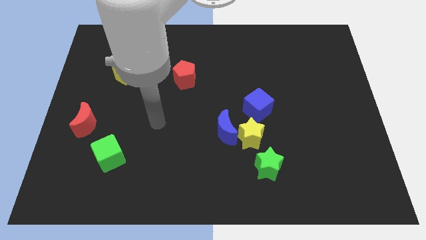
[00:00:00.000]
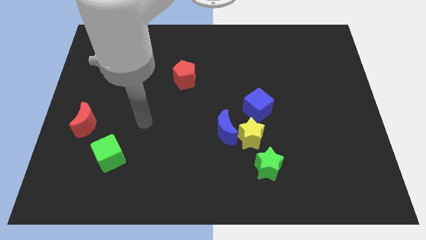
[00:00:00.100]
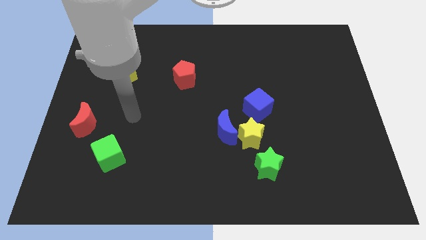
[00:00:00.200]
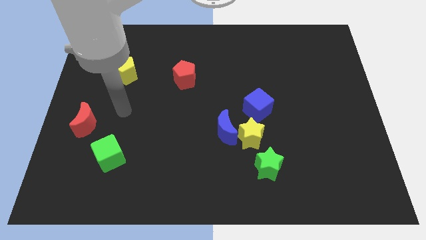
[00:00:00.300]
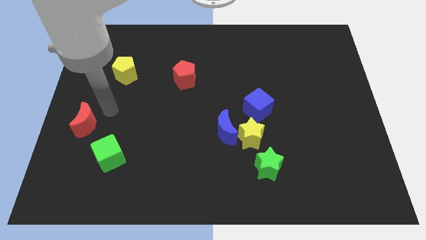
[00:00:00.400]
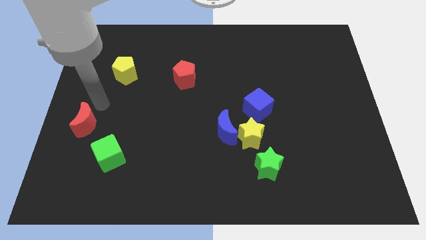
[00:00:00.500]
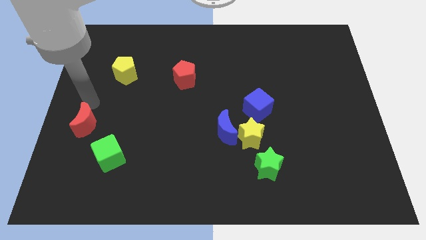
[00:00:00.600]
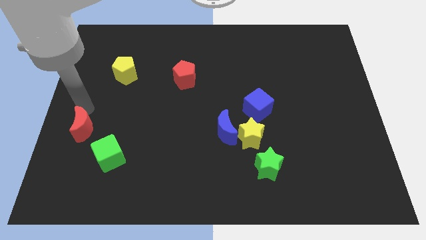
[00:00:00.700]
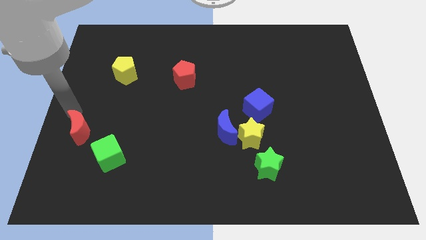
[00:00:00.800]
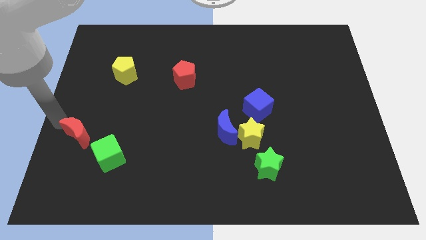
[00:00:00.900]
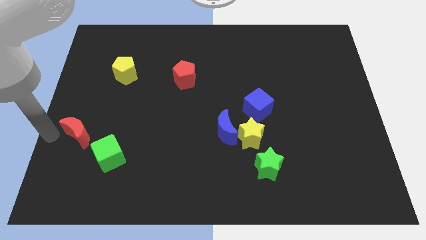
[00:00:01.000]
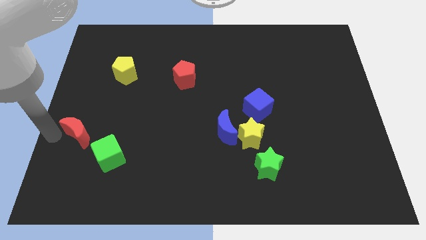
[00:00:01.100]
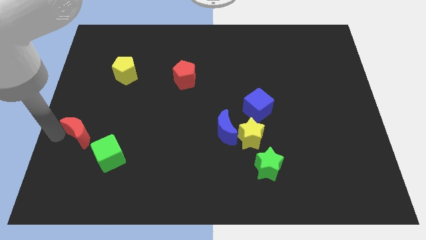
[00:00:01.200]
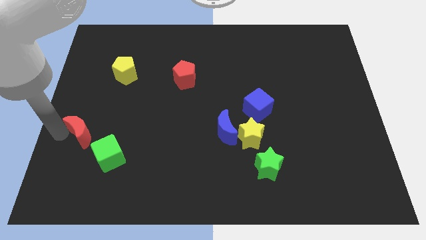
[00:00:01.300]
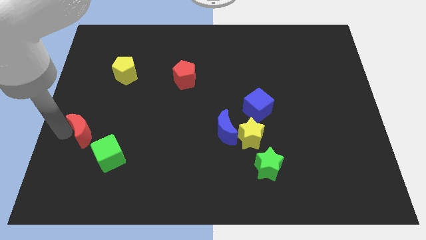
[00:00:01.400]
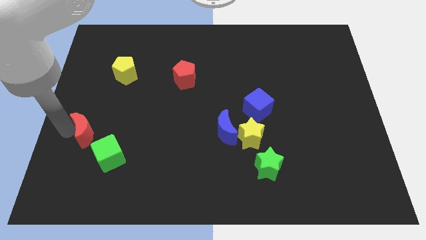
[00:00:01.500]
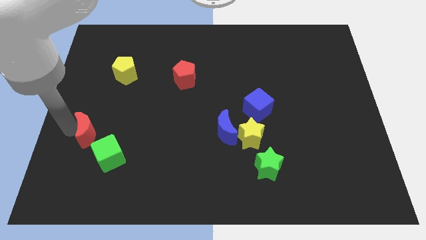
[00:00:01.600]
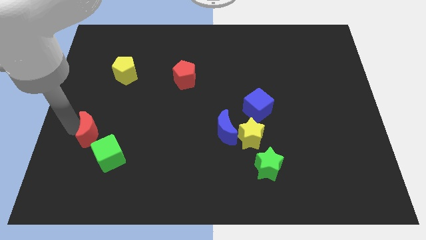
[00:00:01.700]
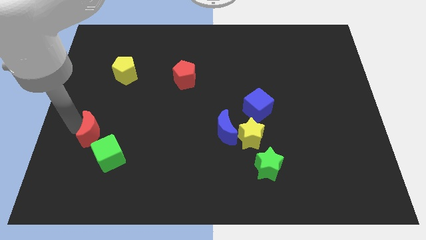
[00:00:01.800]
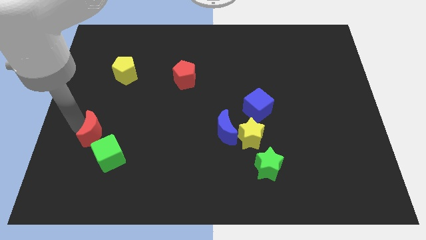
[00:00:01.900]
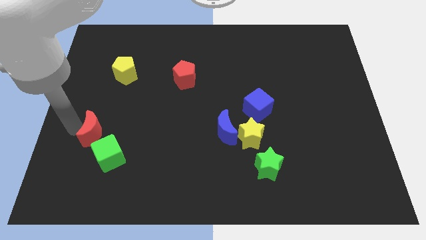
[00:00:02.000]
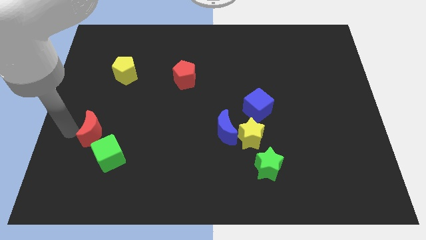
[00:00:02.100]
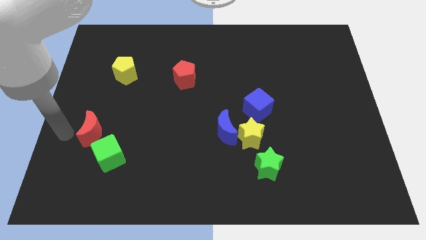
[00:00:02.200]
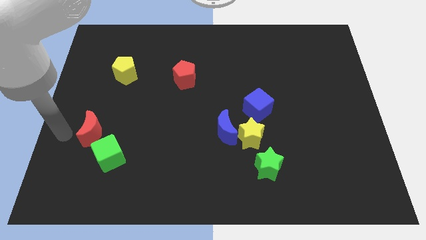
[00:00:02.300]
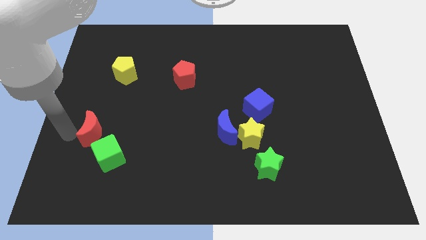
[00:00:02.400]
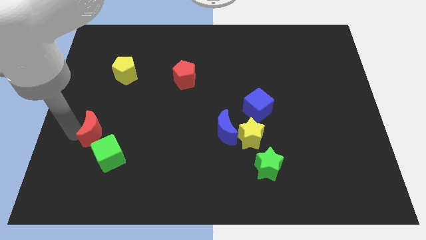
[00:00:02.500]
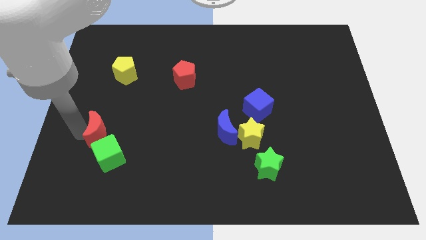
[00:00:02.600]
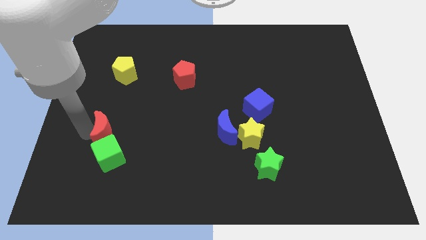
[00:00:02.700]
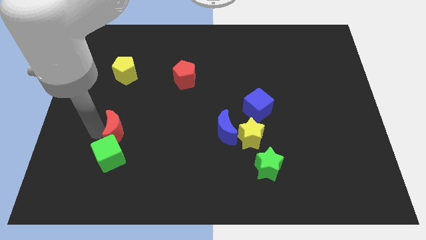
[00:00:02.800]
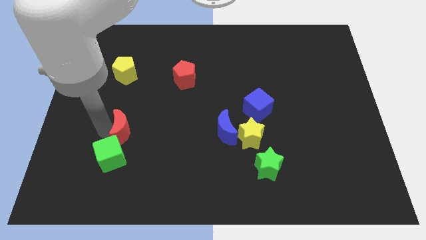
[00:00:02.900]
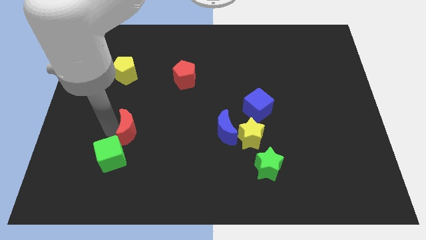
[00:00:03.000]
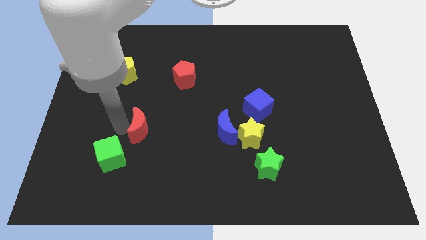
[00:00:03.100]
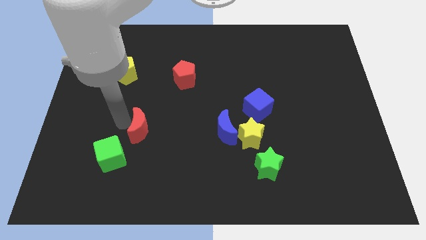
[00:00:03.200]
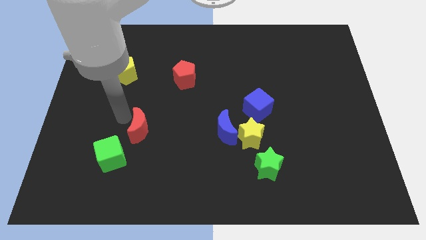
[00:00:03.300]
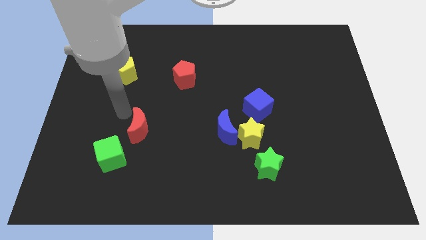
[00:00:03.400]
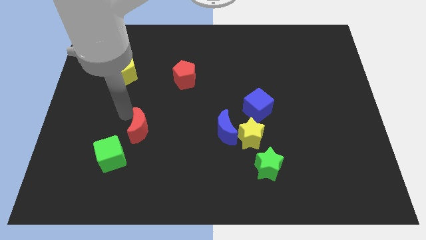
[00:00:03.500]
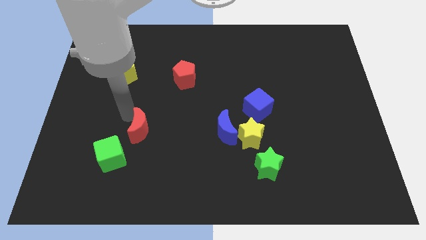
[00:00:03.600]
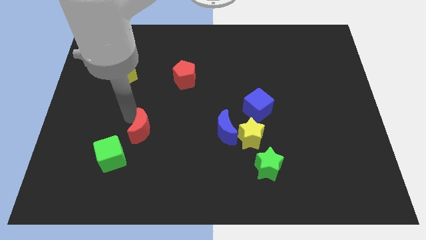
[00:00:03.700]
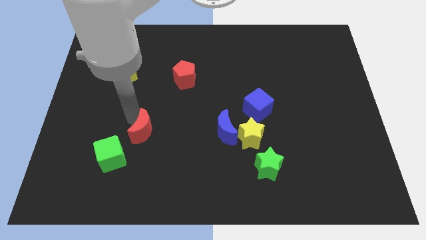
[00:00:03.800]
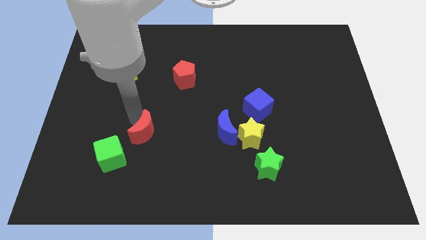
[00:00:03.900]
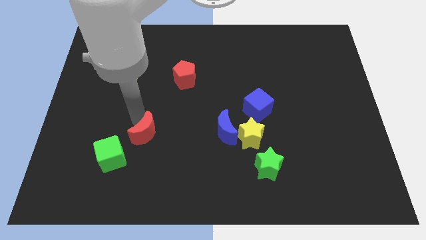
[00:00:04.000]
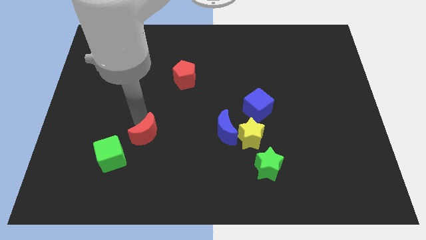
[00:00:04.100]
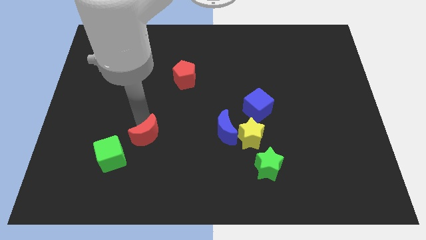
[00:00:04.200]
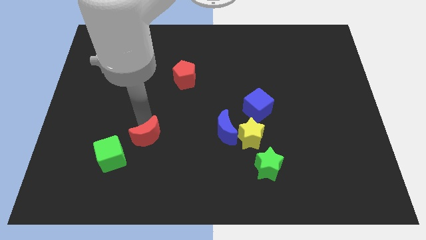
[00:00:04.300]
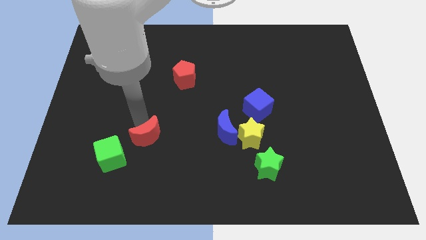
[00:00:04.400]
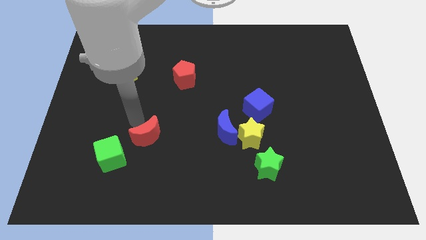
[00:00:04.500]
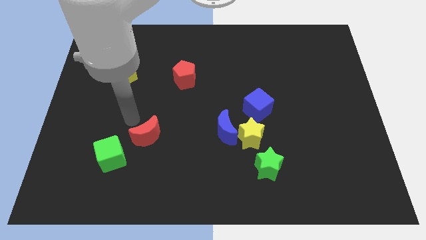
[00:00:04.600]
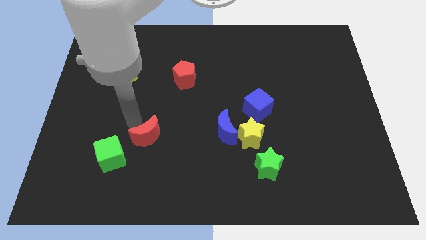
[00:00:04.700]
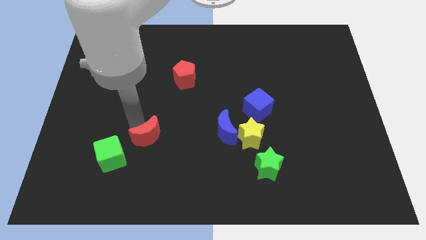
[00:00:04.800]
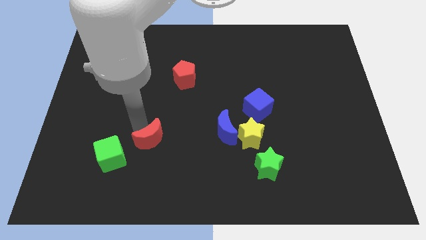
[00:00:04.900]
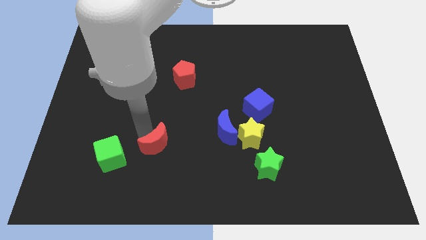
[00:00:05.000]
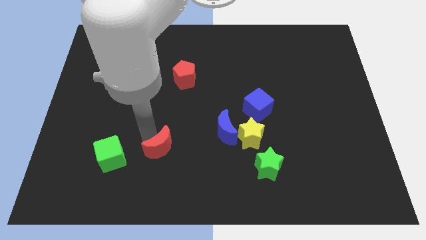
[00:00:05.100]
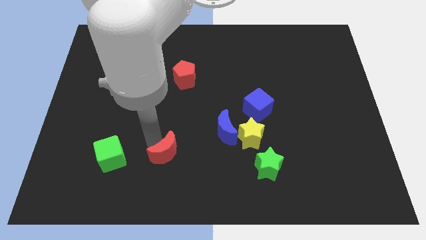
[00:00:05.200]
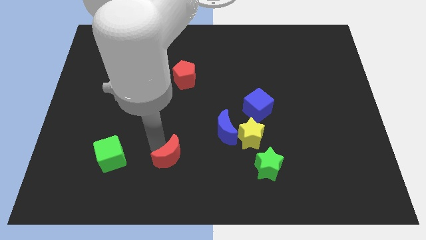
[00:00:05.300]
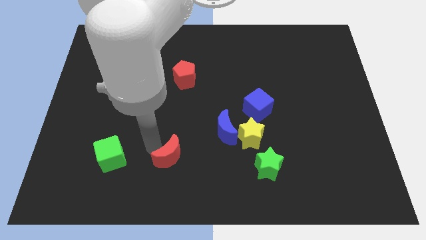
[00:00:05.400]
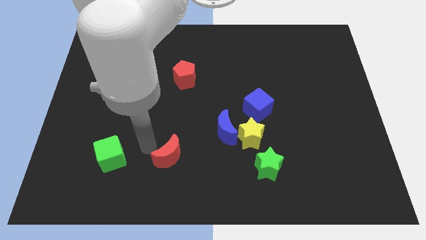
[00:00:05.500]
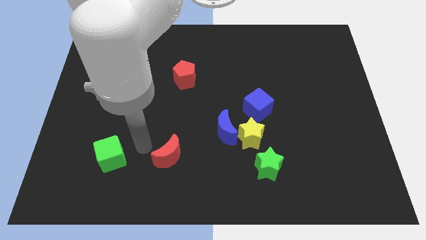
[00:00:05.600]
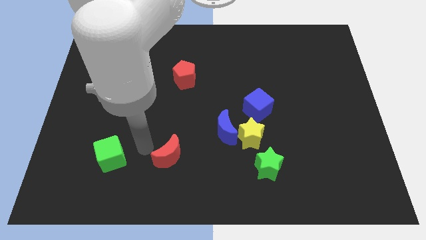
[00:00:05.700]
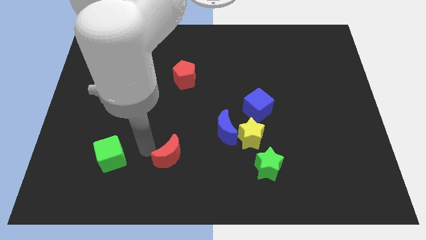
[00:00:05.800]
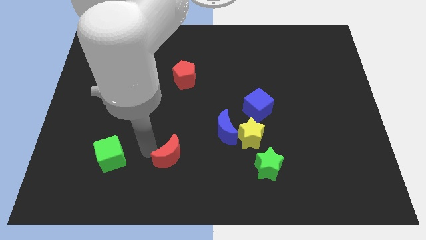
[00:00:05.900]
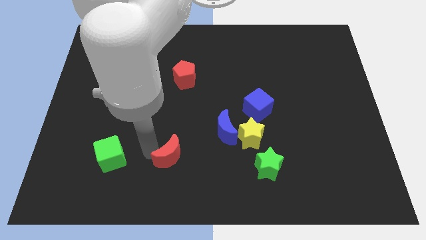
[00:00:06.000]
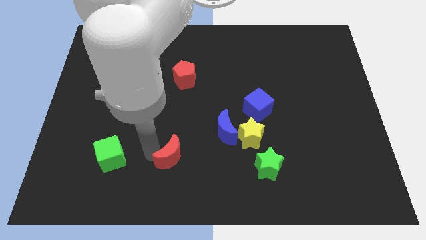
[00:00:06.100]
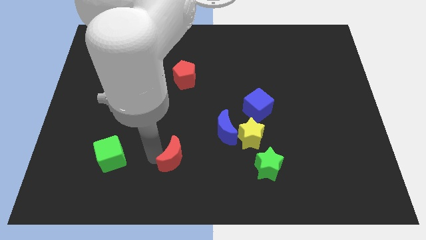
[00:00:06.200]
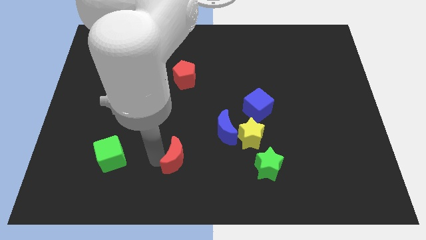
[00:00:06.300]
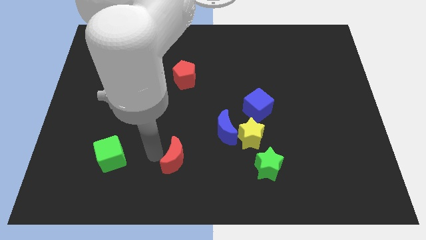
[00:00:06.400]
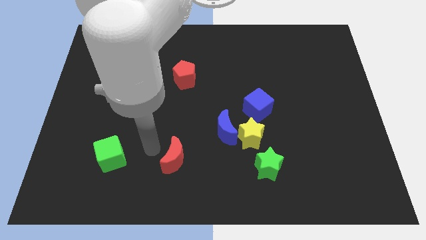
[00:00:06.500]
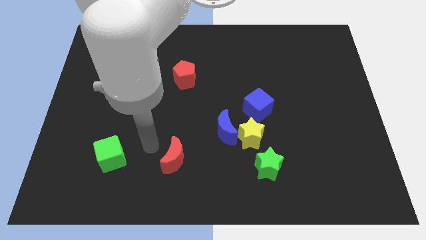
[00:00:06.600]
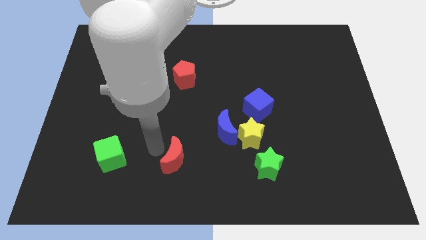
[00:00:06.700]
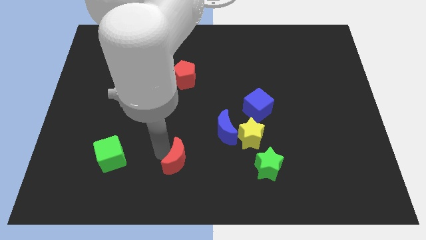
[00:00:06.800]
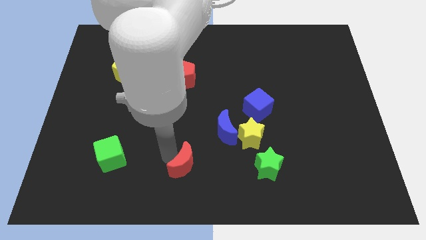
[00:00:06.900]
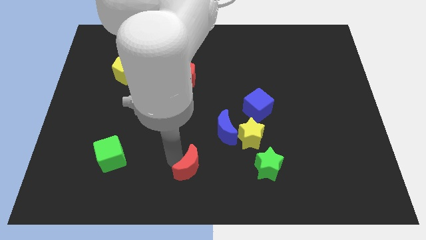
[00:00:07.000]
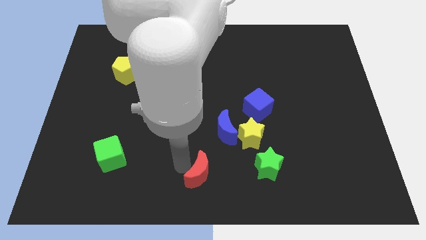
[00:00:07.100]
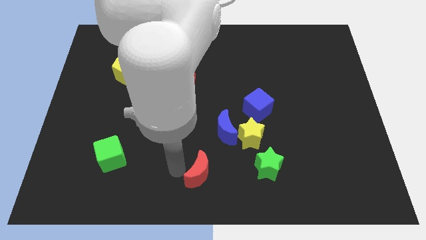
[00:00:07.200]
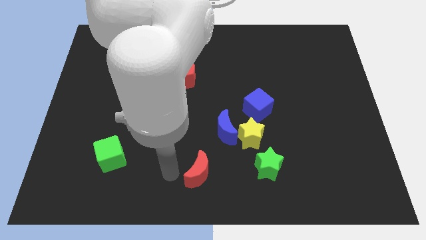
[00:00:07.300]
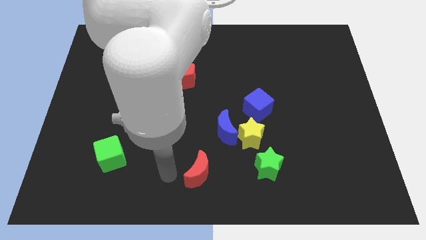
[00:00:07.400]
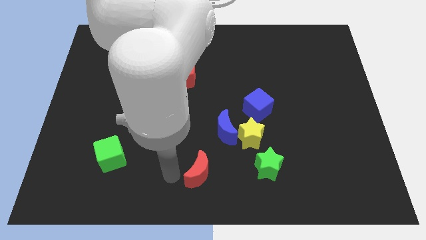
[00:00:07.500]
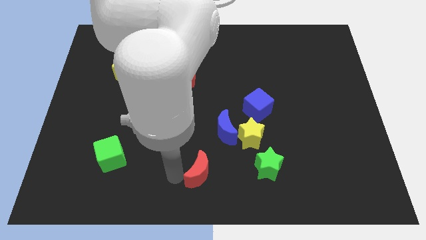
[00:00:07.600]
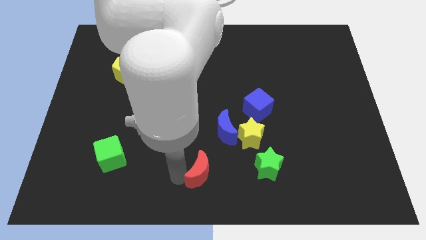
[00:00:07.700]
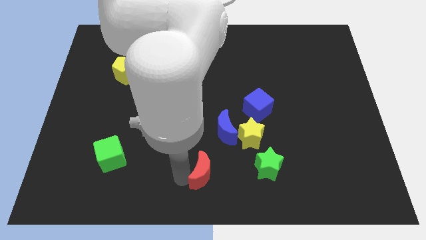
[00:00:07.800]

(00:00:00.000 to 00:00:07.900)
move the red moon below the blue moon
